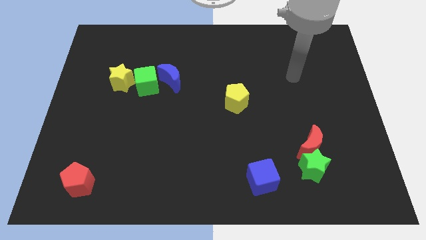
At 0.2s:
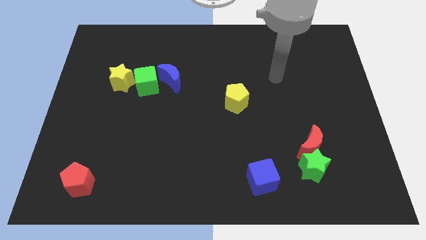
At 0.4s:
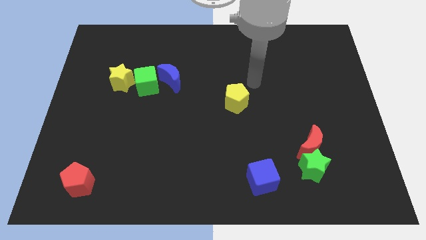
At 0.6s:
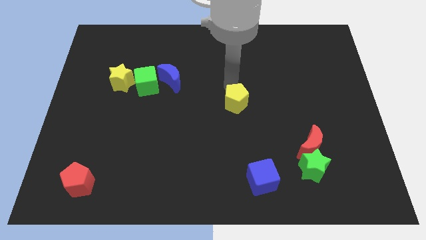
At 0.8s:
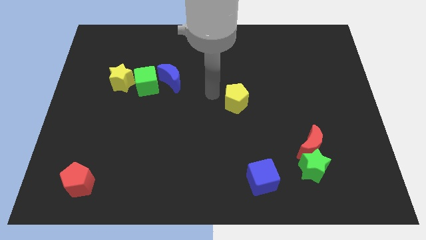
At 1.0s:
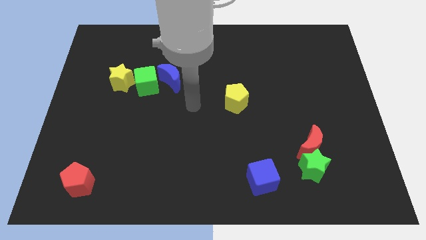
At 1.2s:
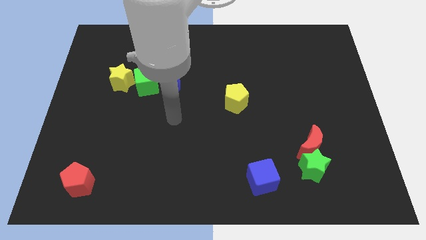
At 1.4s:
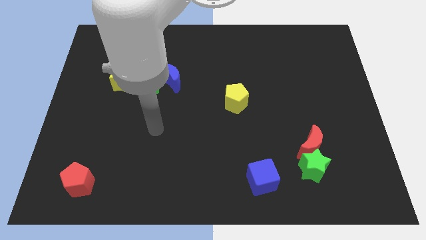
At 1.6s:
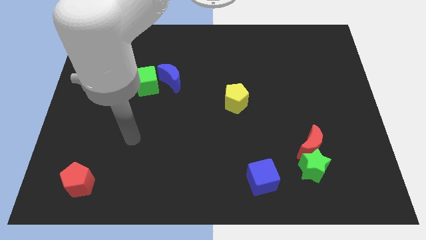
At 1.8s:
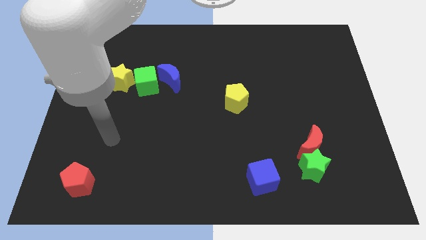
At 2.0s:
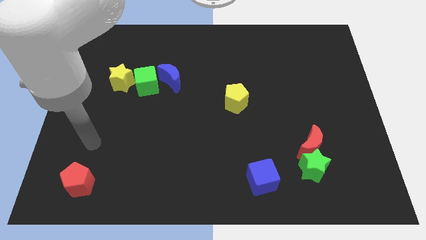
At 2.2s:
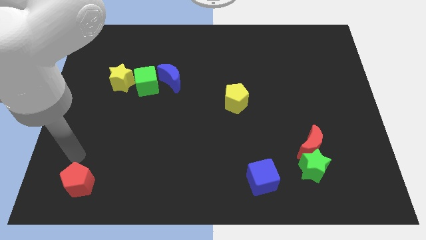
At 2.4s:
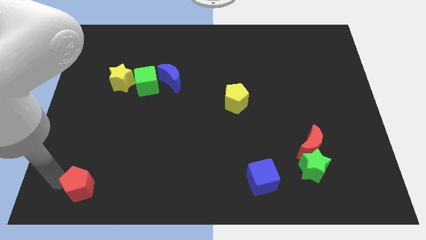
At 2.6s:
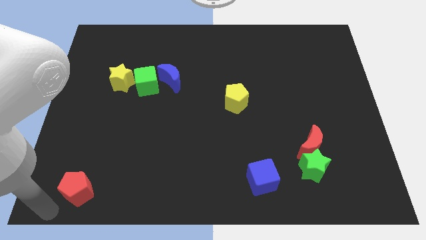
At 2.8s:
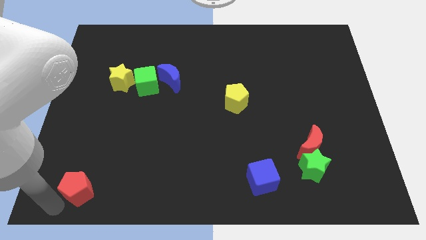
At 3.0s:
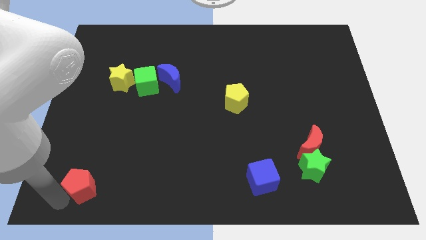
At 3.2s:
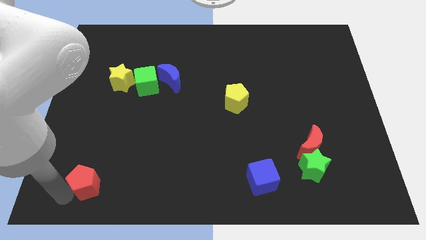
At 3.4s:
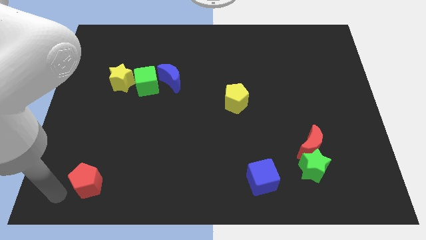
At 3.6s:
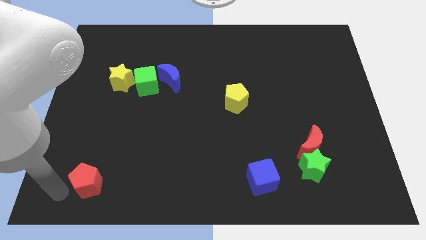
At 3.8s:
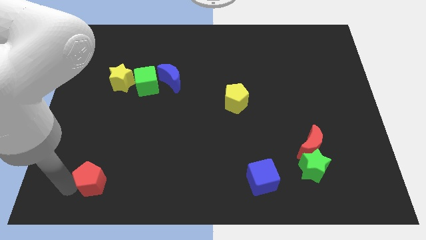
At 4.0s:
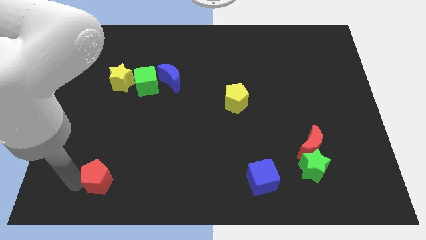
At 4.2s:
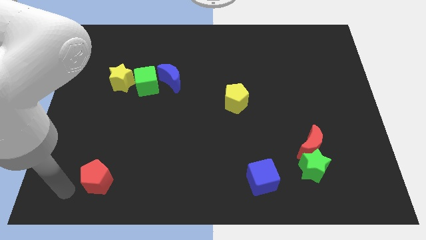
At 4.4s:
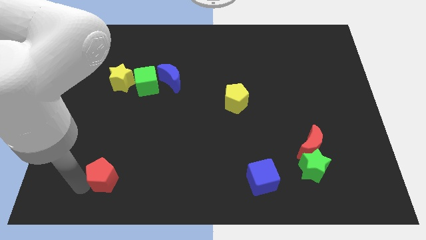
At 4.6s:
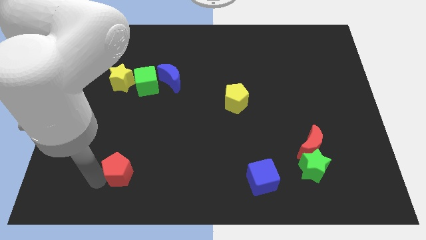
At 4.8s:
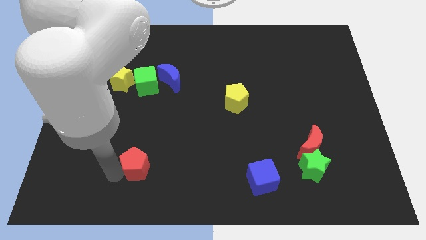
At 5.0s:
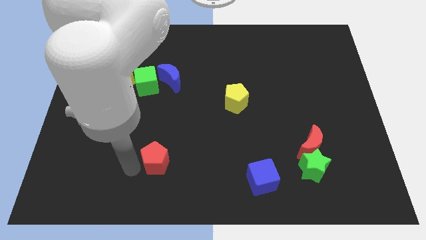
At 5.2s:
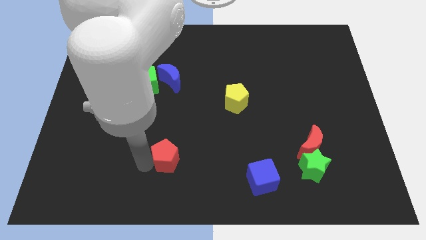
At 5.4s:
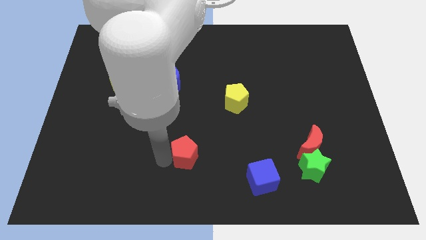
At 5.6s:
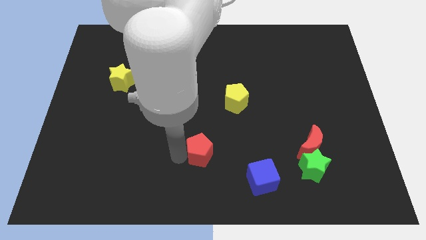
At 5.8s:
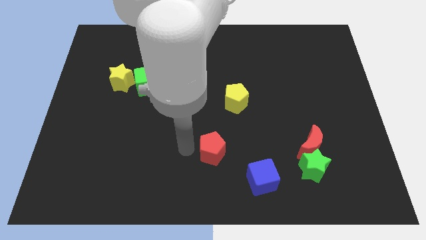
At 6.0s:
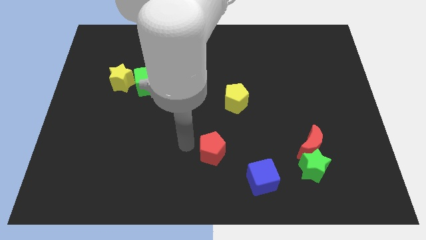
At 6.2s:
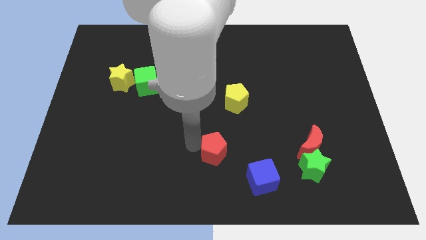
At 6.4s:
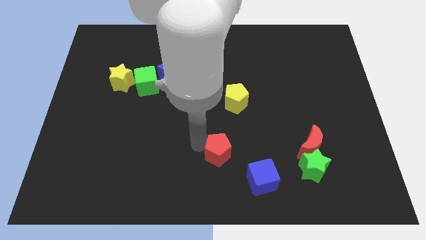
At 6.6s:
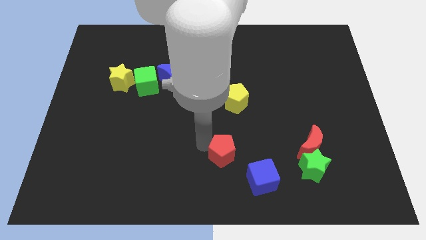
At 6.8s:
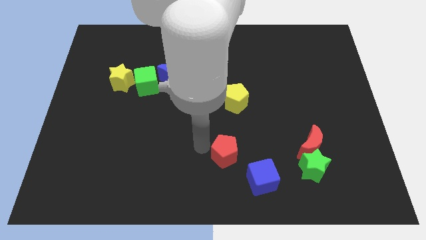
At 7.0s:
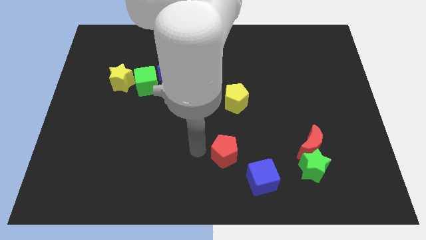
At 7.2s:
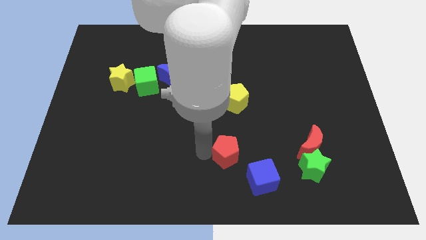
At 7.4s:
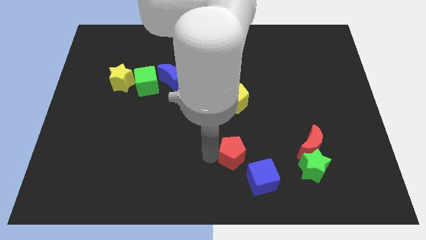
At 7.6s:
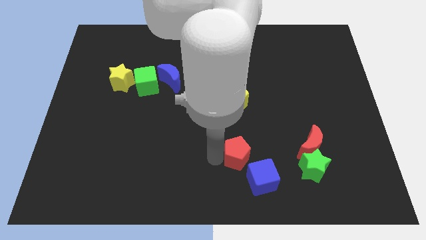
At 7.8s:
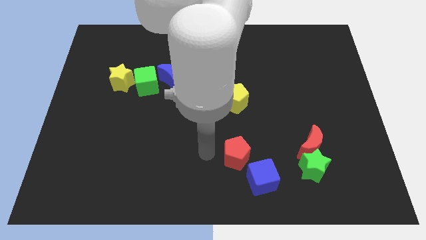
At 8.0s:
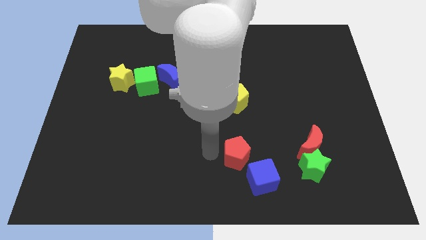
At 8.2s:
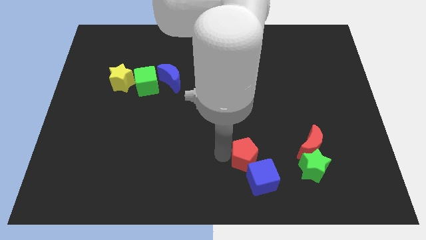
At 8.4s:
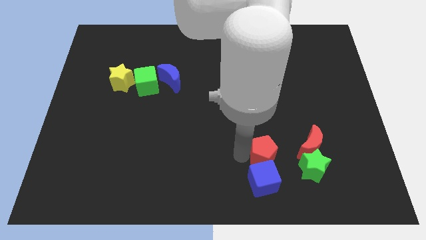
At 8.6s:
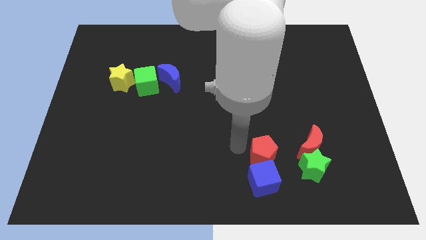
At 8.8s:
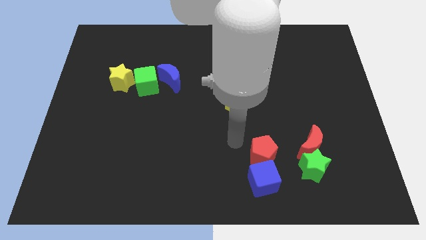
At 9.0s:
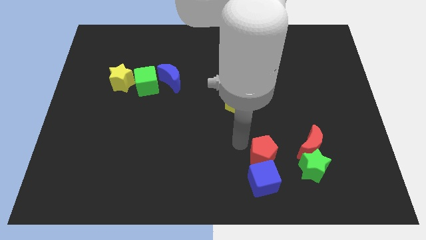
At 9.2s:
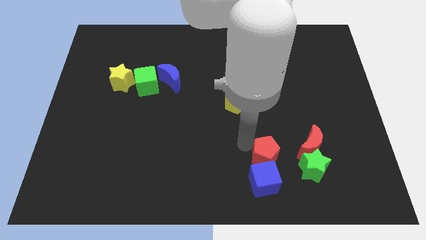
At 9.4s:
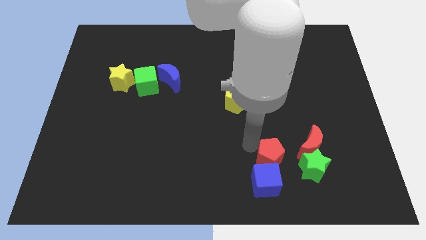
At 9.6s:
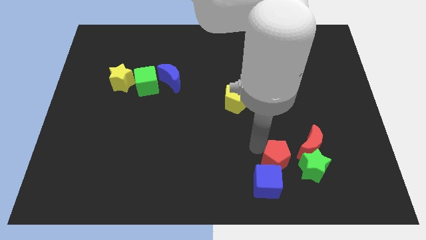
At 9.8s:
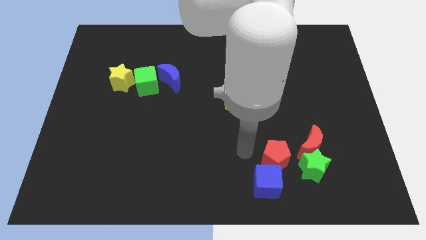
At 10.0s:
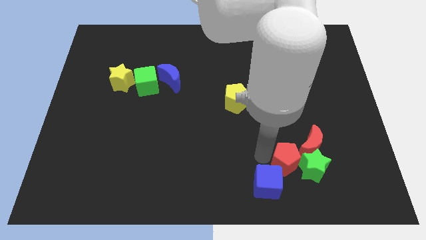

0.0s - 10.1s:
slide the red pentagon to the green star

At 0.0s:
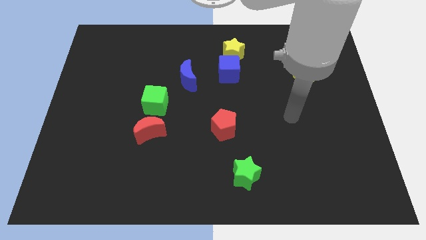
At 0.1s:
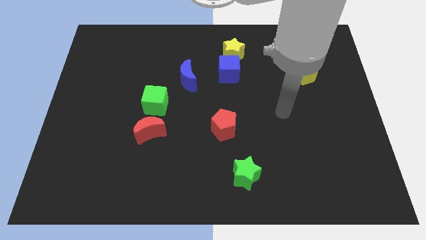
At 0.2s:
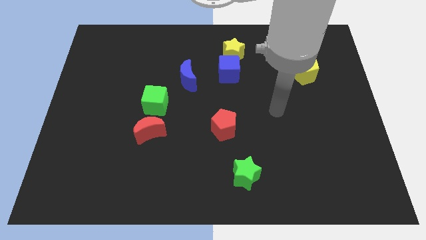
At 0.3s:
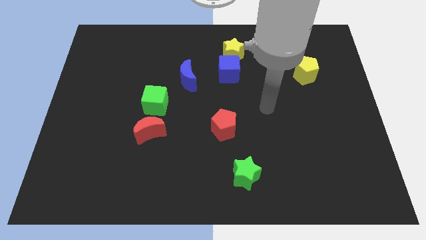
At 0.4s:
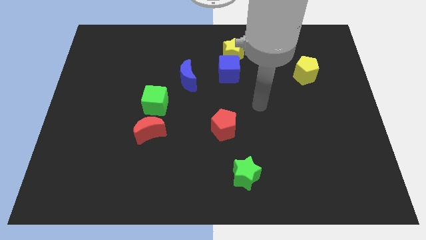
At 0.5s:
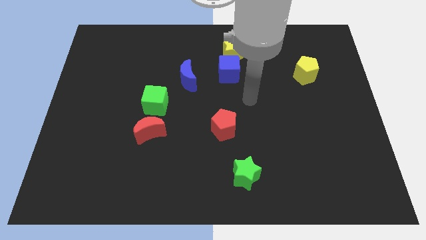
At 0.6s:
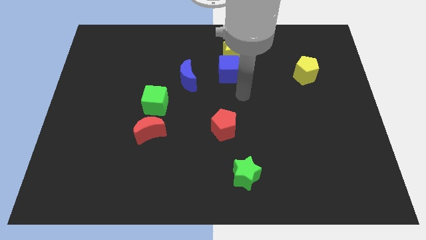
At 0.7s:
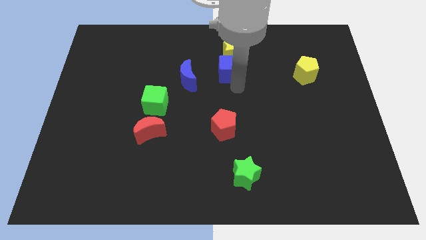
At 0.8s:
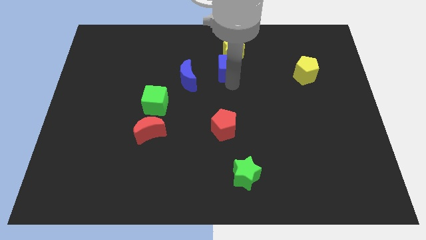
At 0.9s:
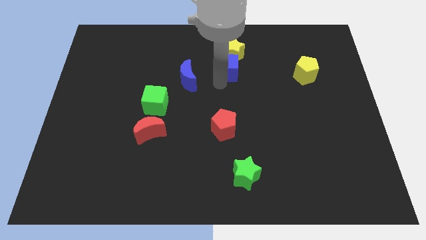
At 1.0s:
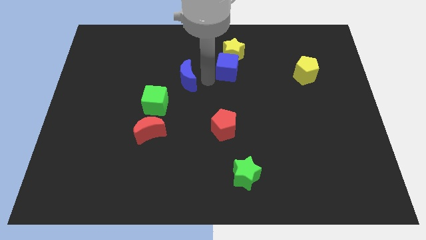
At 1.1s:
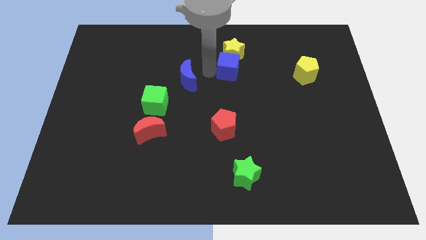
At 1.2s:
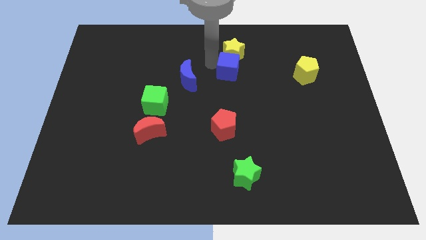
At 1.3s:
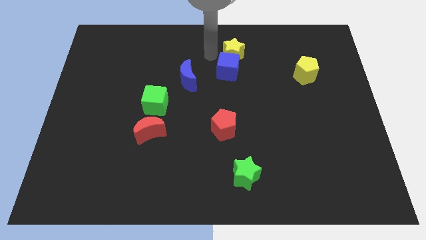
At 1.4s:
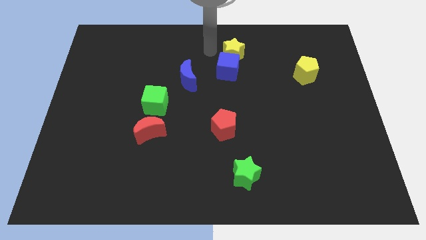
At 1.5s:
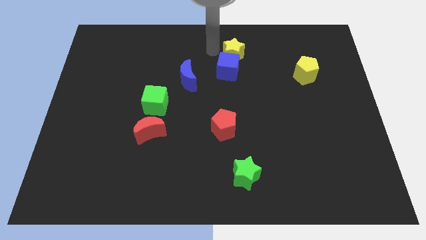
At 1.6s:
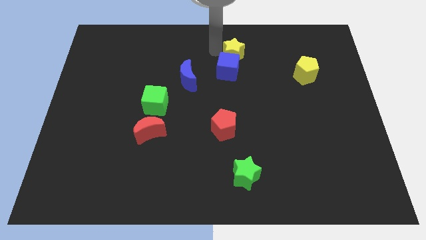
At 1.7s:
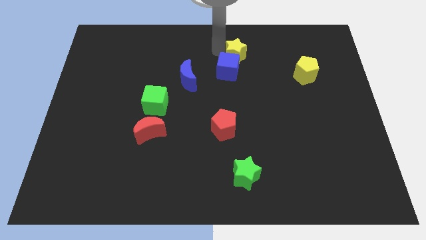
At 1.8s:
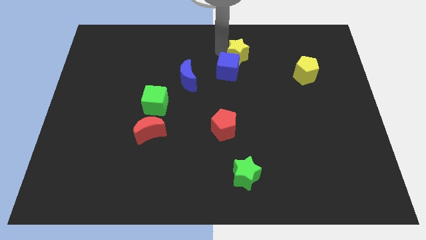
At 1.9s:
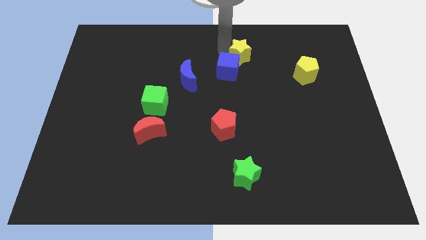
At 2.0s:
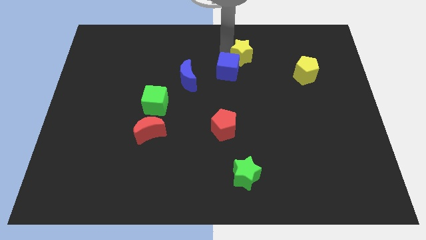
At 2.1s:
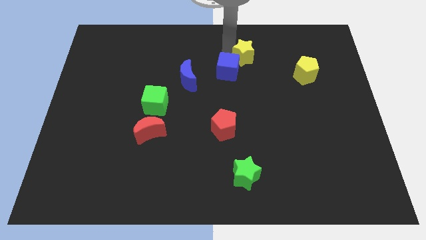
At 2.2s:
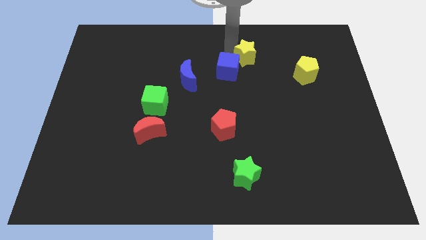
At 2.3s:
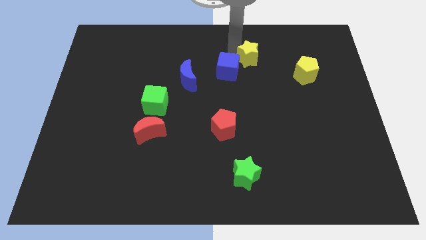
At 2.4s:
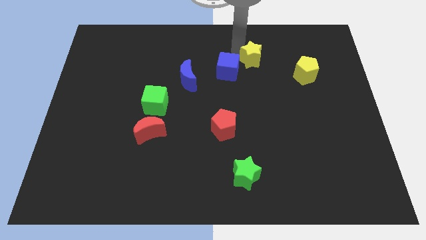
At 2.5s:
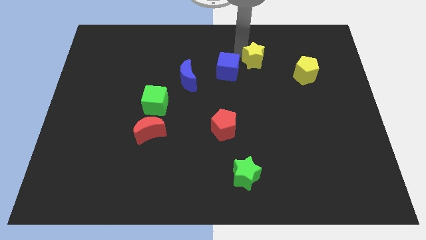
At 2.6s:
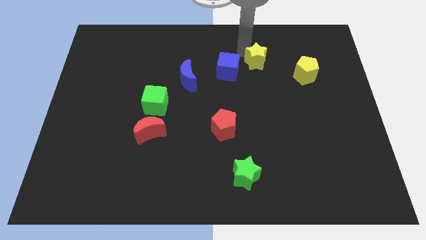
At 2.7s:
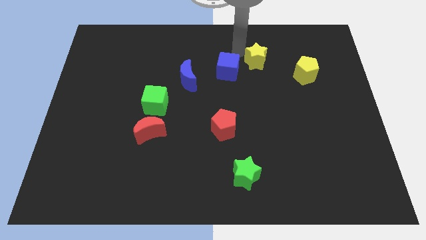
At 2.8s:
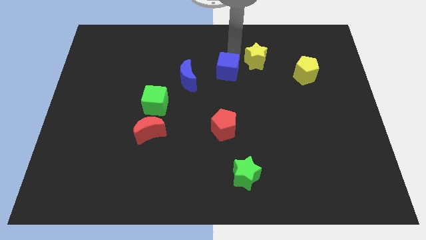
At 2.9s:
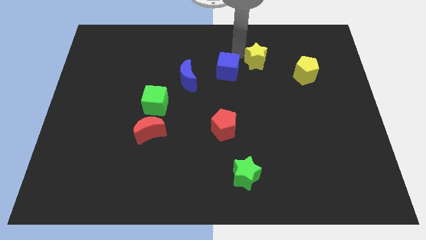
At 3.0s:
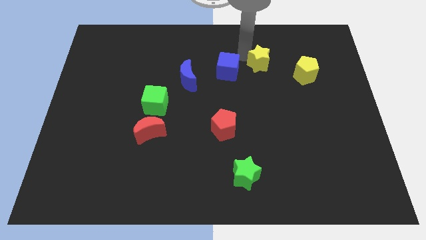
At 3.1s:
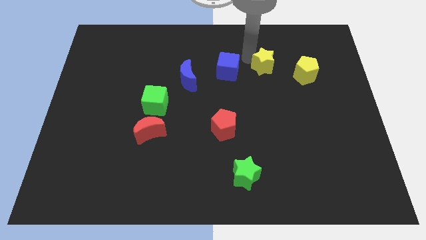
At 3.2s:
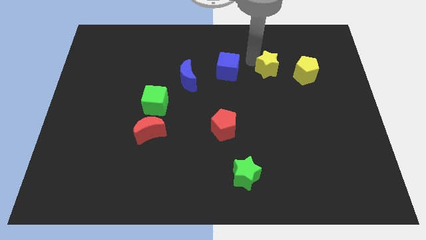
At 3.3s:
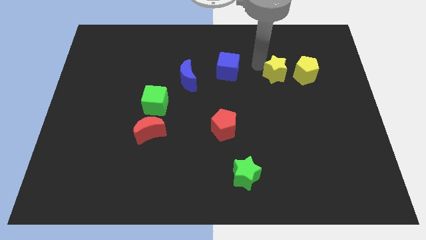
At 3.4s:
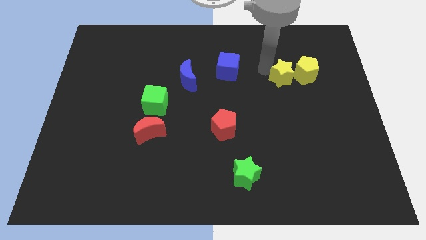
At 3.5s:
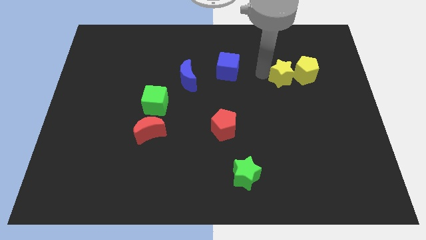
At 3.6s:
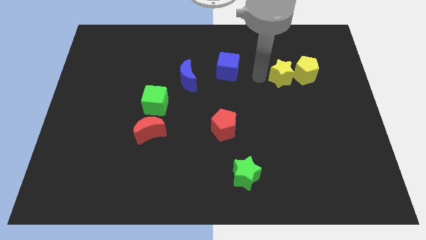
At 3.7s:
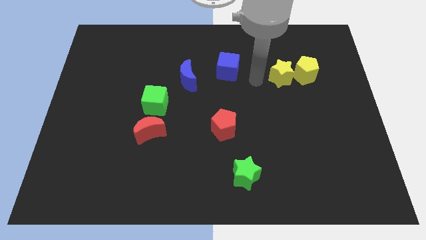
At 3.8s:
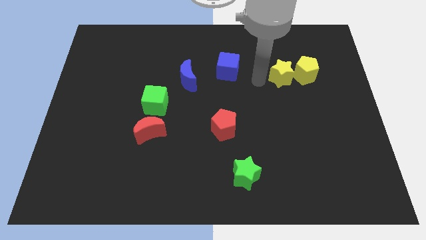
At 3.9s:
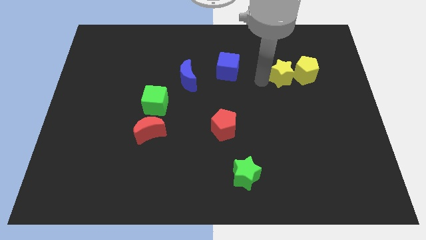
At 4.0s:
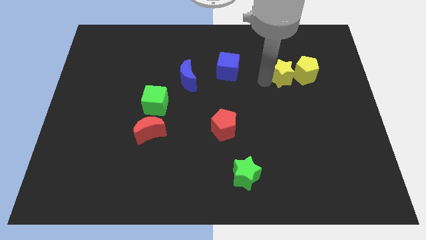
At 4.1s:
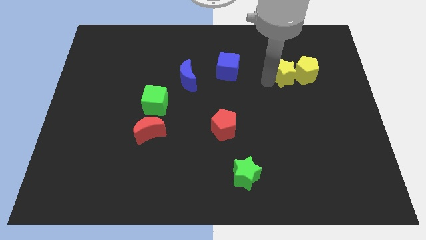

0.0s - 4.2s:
put the yellow star close to the yellow pentagon
